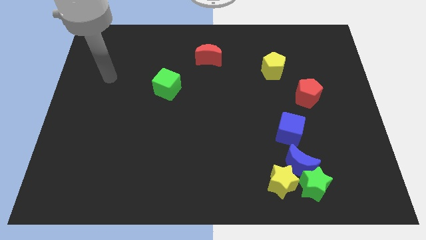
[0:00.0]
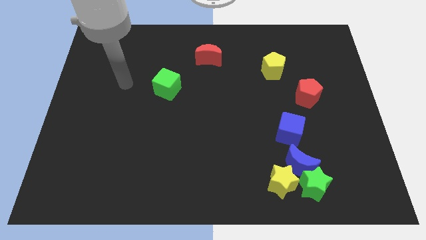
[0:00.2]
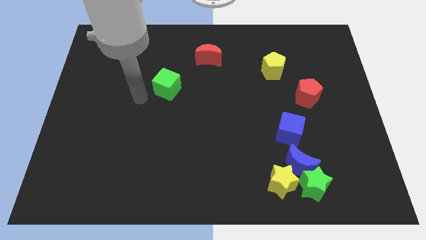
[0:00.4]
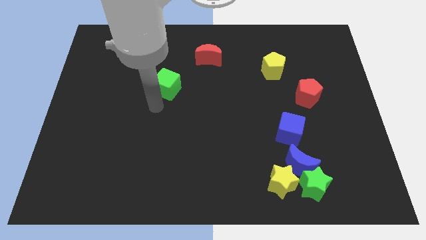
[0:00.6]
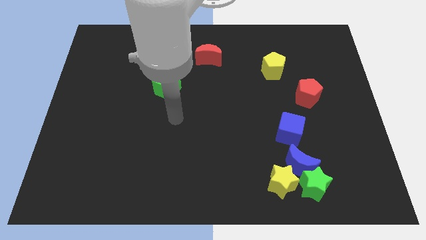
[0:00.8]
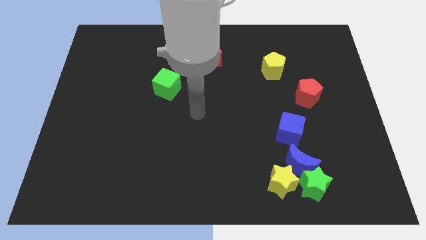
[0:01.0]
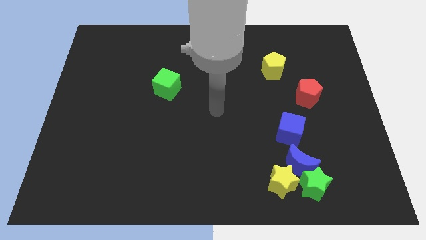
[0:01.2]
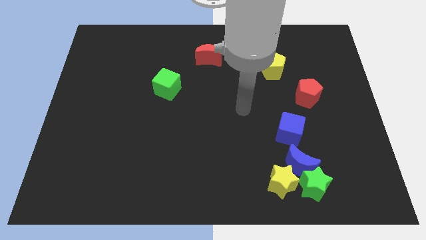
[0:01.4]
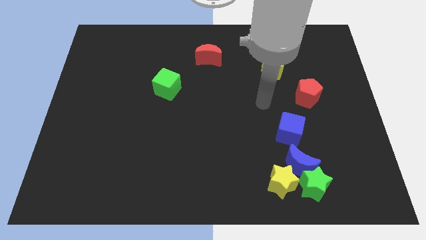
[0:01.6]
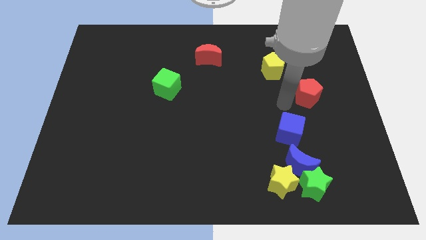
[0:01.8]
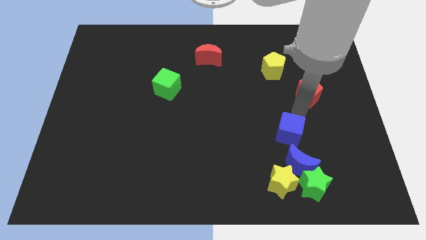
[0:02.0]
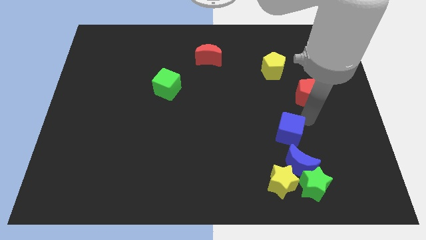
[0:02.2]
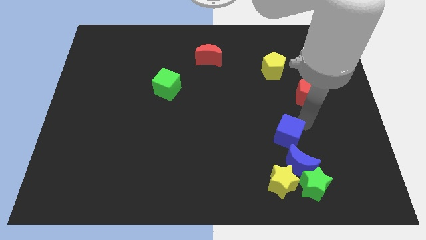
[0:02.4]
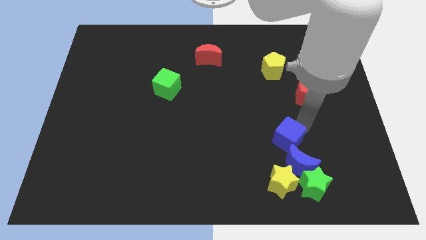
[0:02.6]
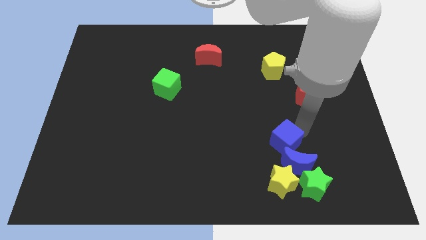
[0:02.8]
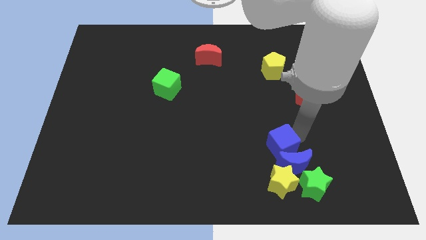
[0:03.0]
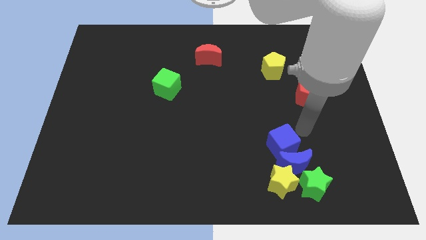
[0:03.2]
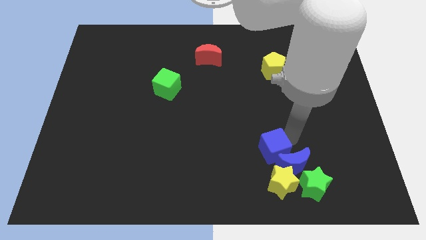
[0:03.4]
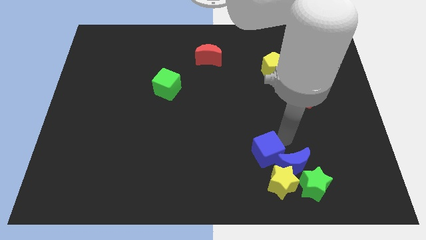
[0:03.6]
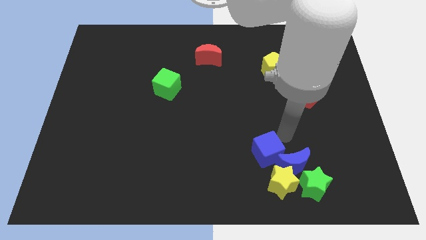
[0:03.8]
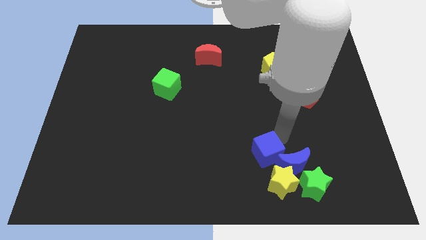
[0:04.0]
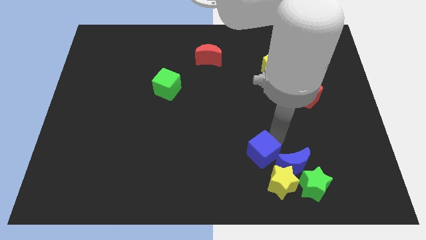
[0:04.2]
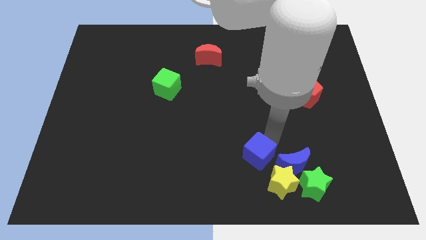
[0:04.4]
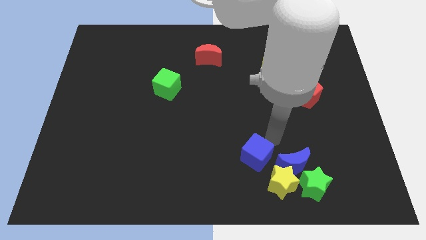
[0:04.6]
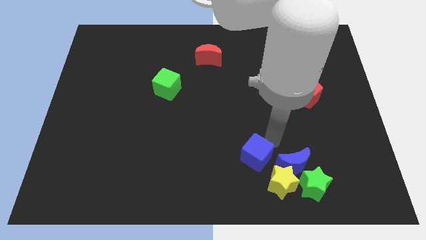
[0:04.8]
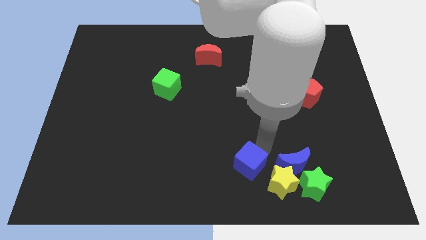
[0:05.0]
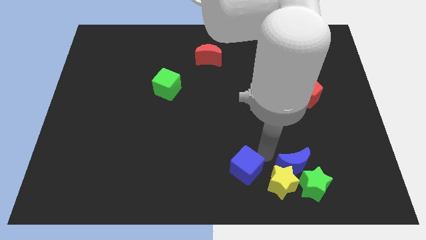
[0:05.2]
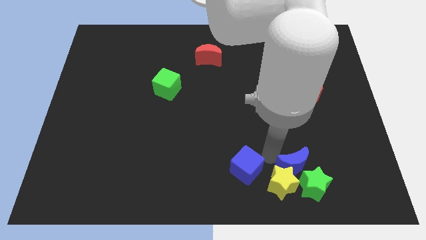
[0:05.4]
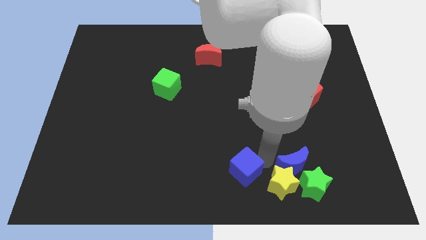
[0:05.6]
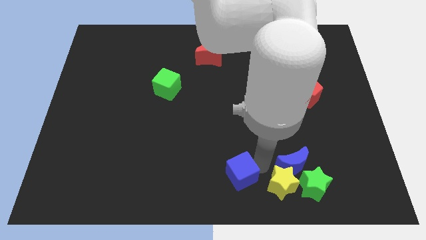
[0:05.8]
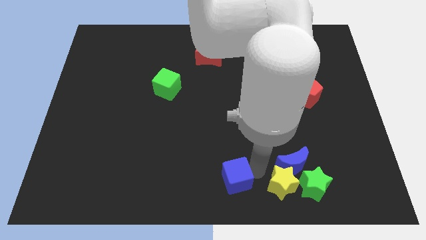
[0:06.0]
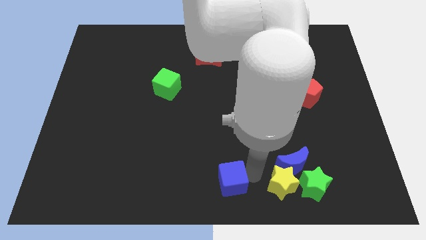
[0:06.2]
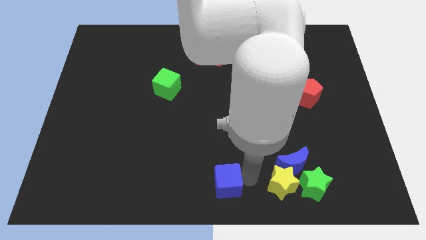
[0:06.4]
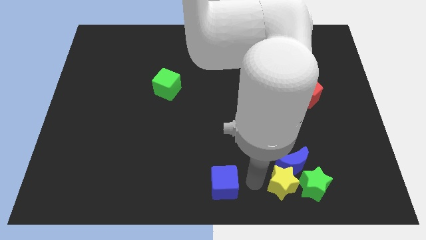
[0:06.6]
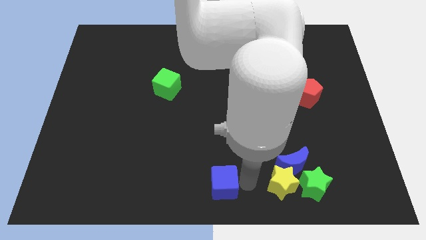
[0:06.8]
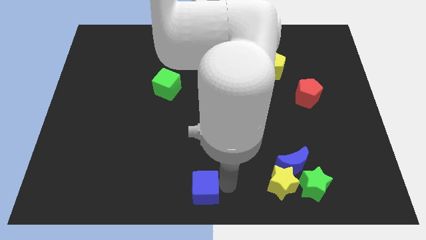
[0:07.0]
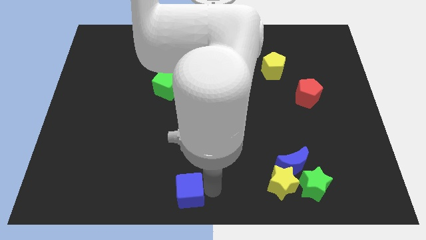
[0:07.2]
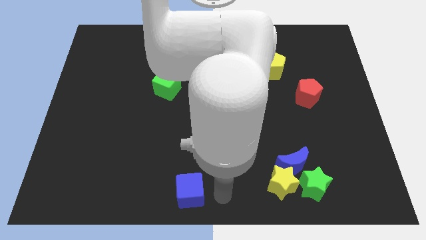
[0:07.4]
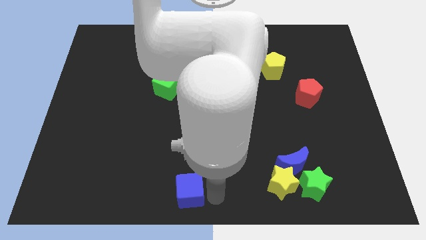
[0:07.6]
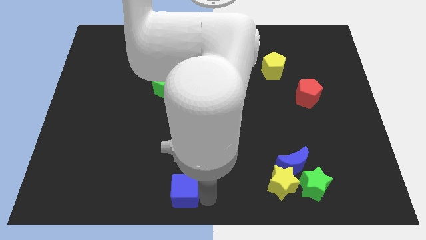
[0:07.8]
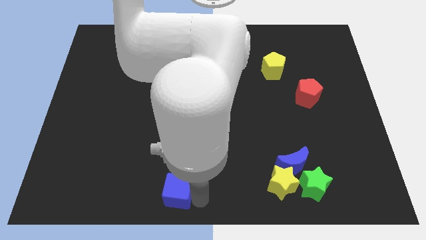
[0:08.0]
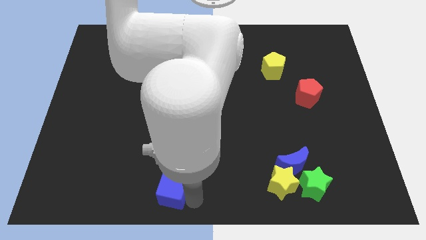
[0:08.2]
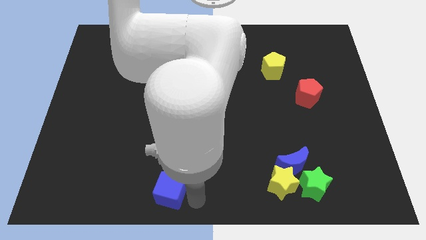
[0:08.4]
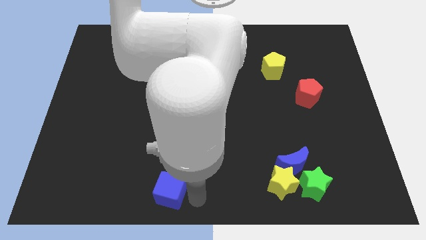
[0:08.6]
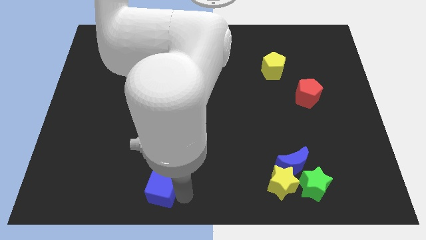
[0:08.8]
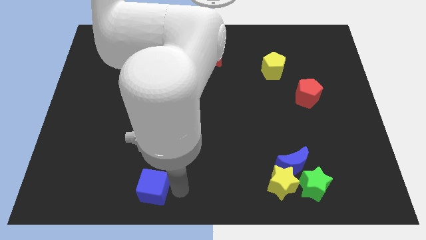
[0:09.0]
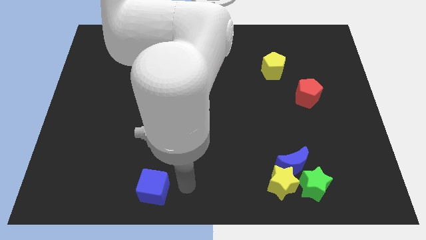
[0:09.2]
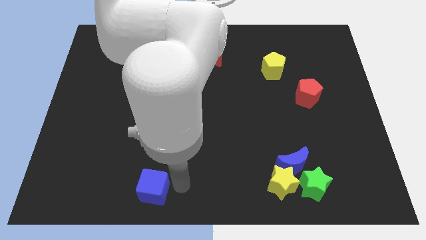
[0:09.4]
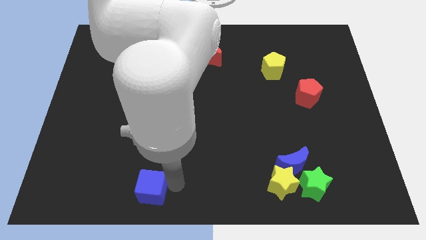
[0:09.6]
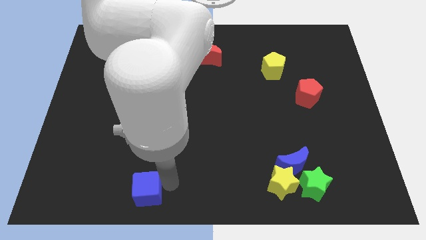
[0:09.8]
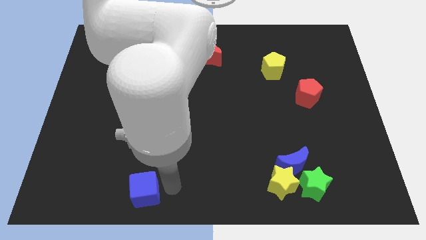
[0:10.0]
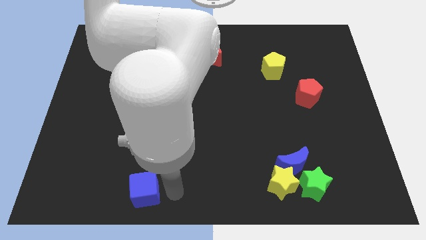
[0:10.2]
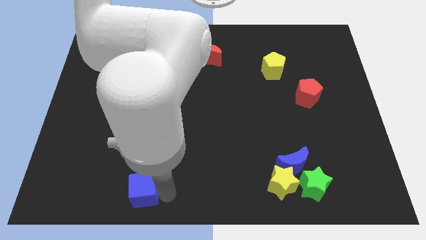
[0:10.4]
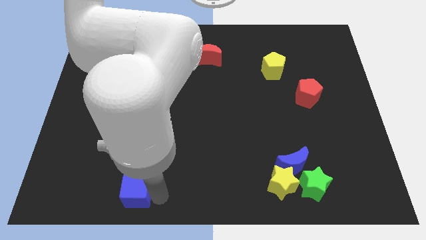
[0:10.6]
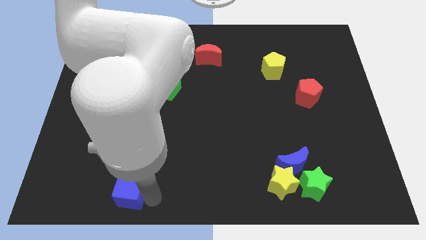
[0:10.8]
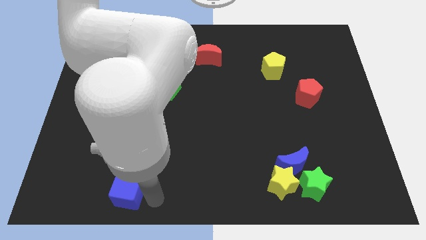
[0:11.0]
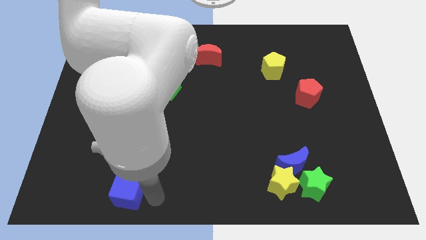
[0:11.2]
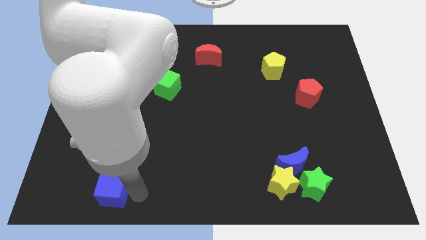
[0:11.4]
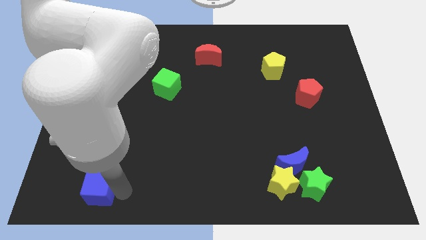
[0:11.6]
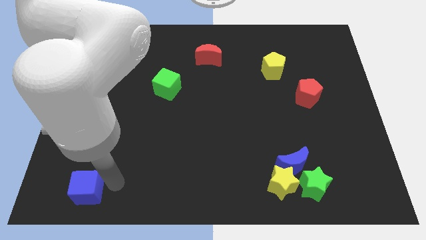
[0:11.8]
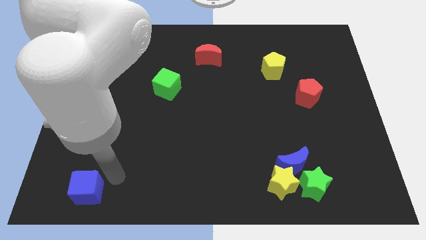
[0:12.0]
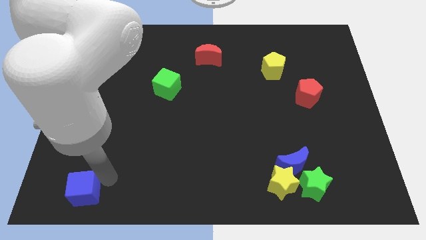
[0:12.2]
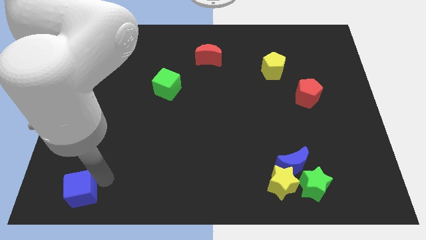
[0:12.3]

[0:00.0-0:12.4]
slide the blue cube to the bottom left corner
